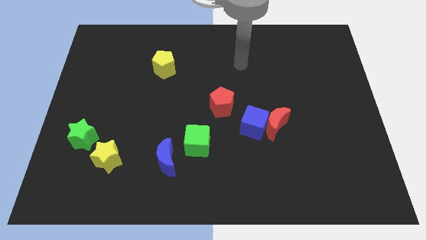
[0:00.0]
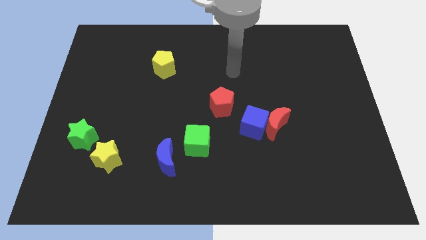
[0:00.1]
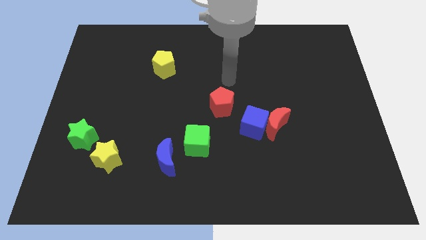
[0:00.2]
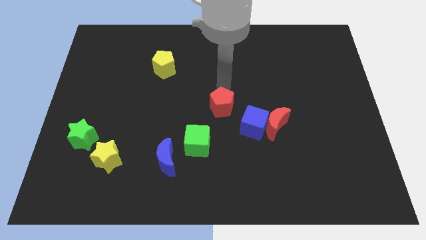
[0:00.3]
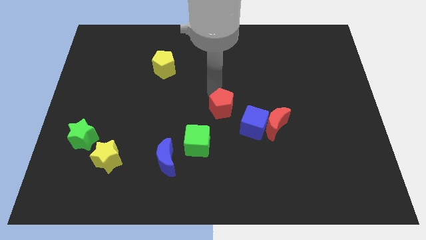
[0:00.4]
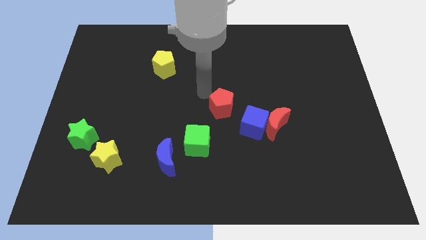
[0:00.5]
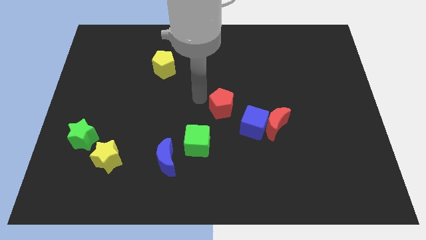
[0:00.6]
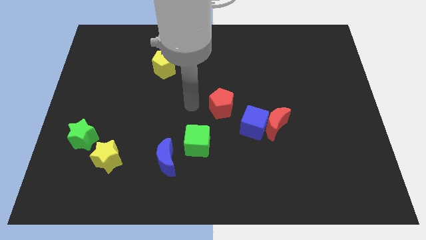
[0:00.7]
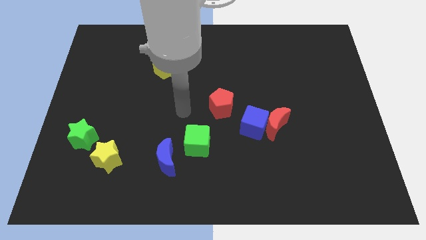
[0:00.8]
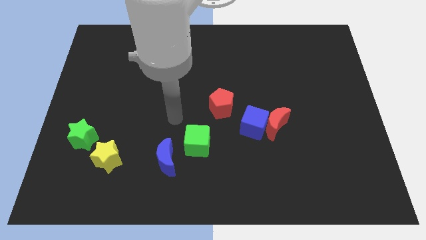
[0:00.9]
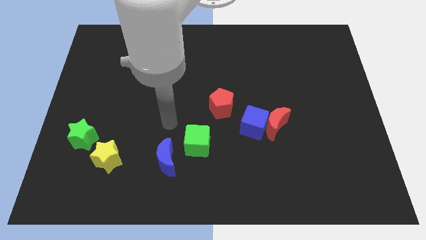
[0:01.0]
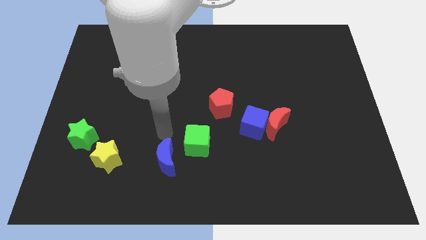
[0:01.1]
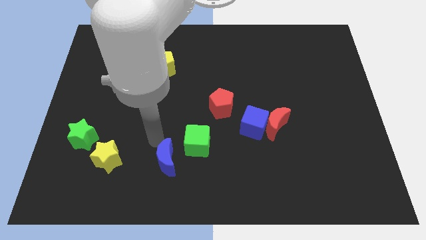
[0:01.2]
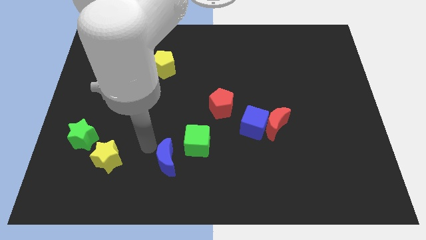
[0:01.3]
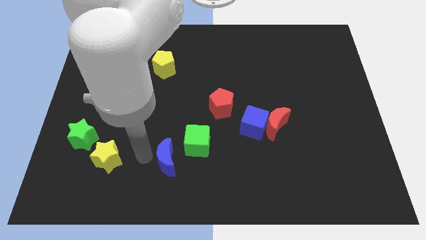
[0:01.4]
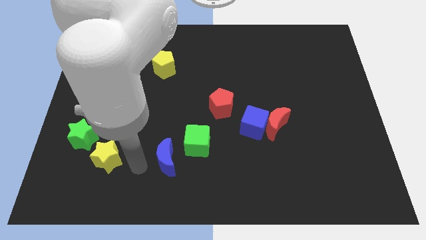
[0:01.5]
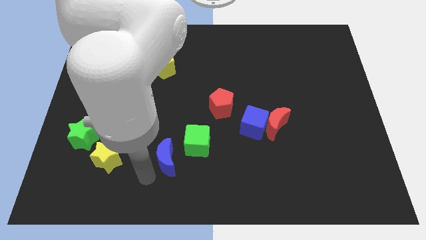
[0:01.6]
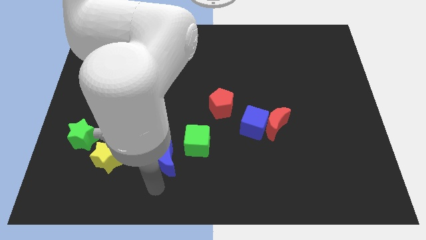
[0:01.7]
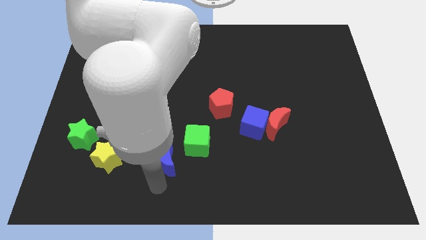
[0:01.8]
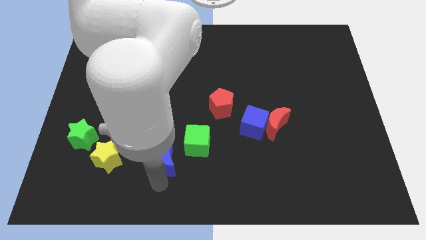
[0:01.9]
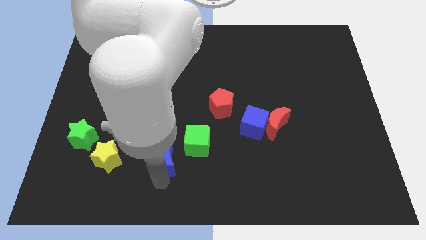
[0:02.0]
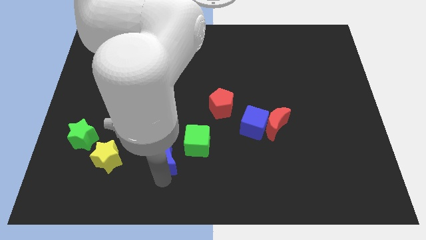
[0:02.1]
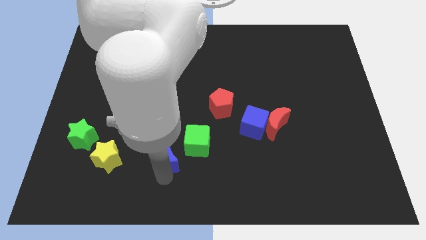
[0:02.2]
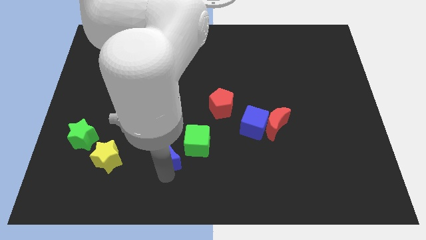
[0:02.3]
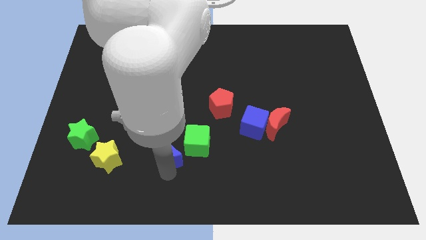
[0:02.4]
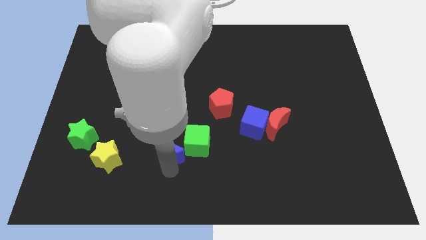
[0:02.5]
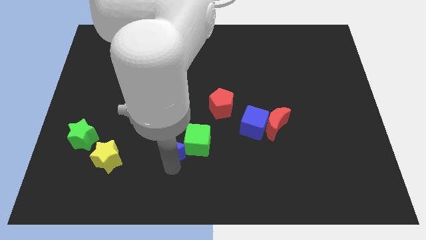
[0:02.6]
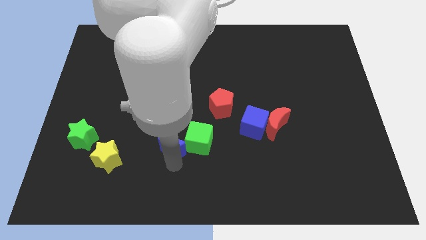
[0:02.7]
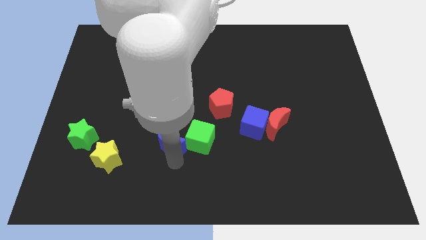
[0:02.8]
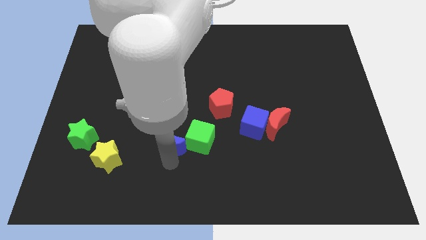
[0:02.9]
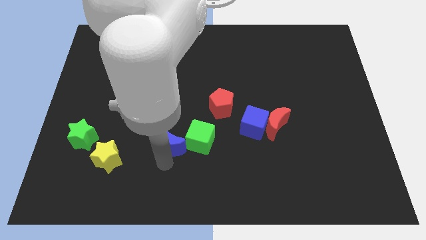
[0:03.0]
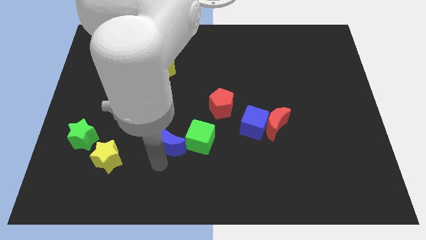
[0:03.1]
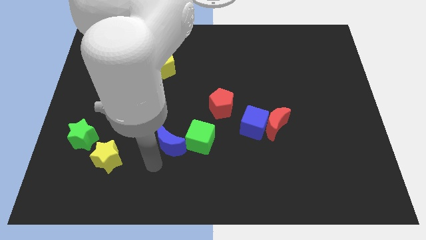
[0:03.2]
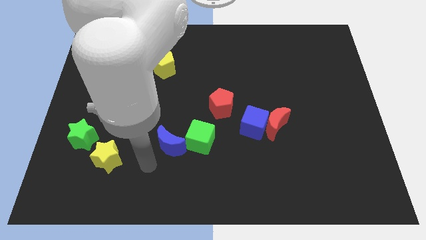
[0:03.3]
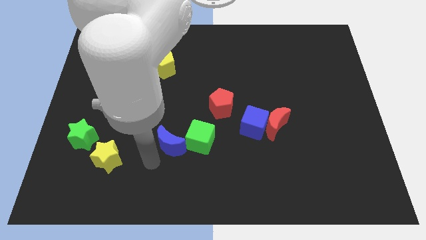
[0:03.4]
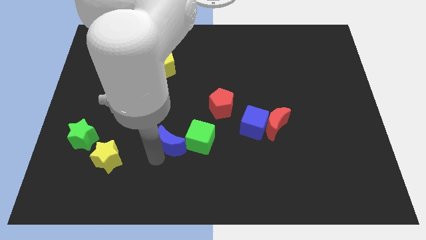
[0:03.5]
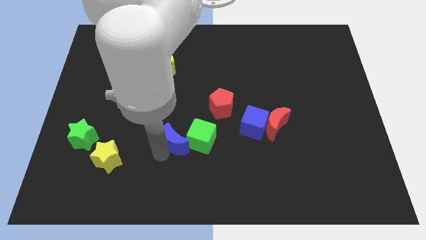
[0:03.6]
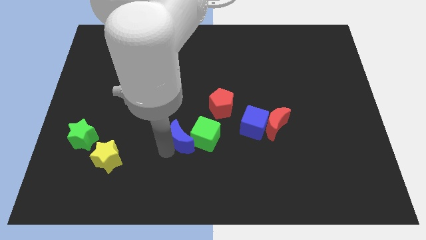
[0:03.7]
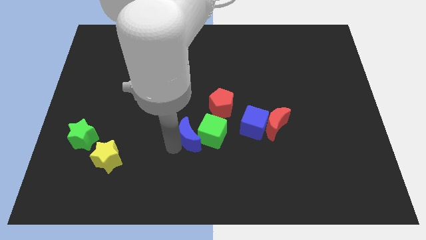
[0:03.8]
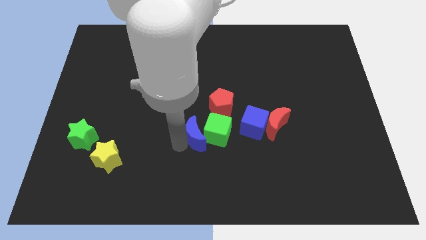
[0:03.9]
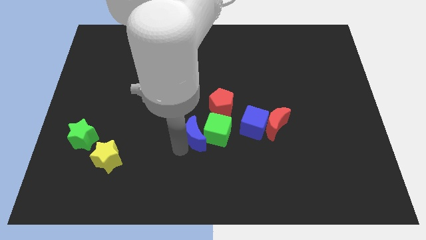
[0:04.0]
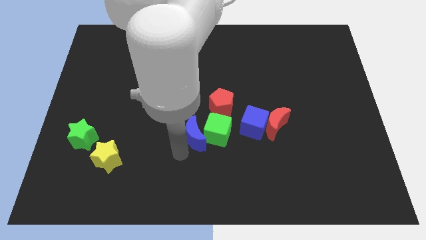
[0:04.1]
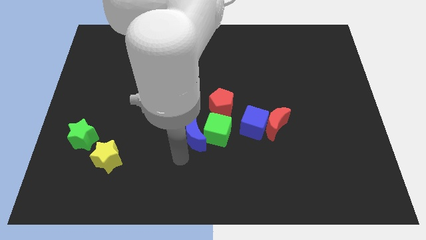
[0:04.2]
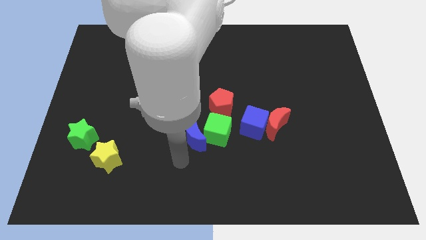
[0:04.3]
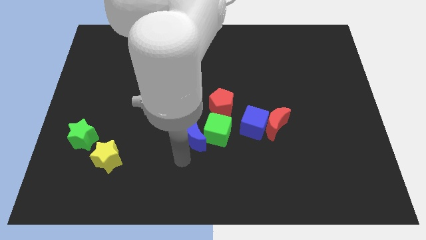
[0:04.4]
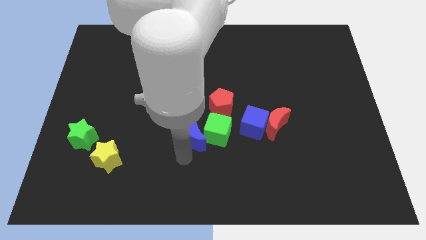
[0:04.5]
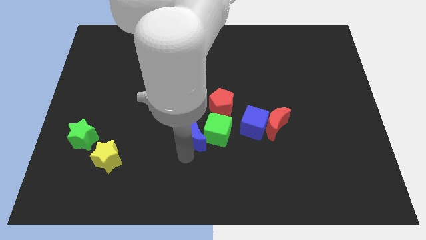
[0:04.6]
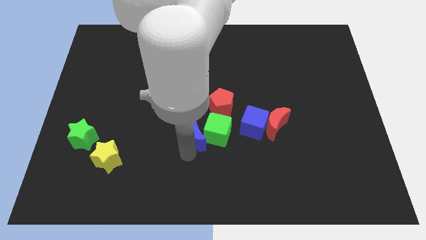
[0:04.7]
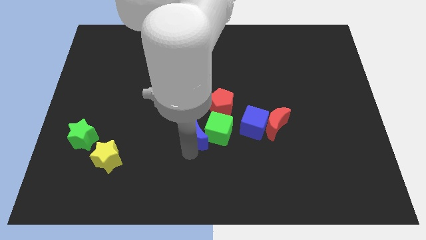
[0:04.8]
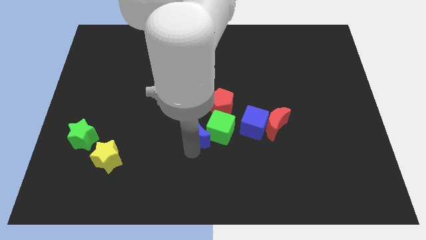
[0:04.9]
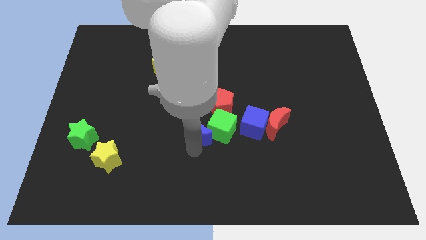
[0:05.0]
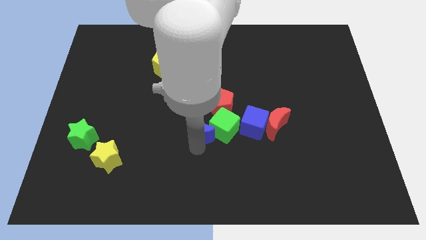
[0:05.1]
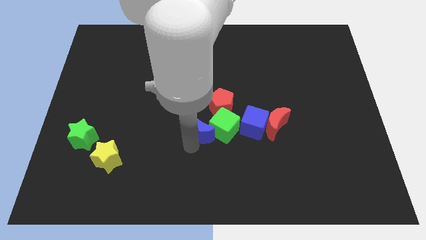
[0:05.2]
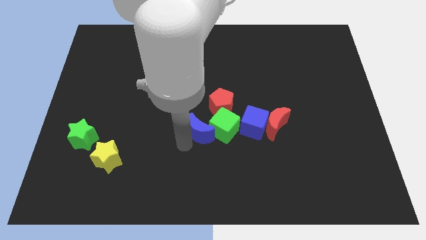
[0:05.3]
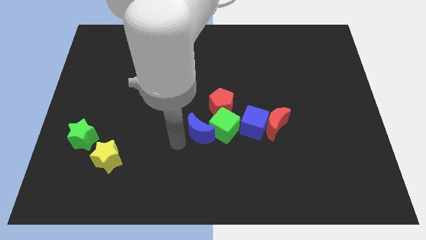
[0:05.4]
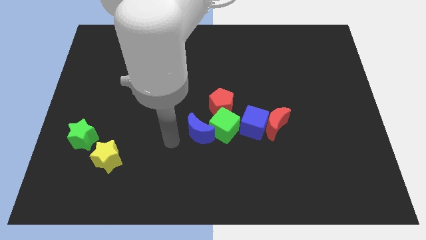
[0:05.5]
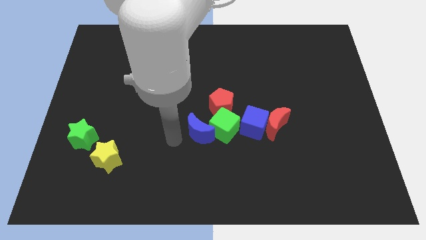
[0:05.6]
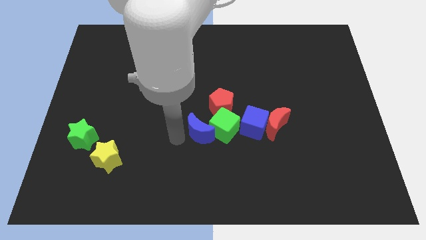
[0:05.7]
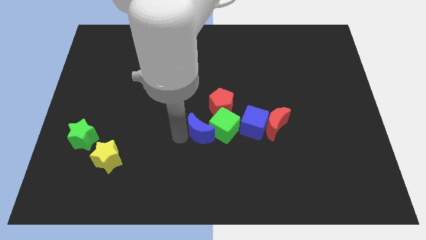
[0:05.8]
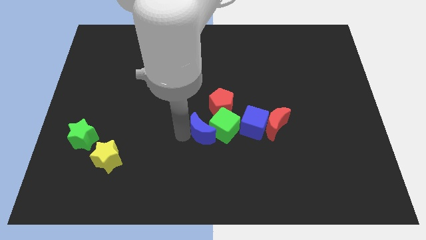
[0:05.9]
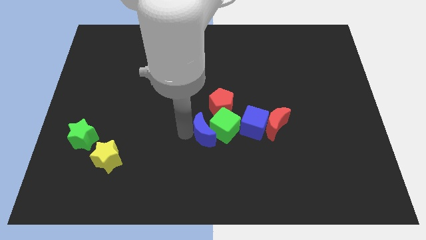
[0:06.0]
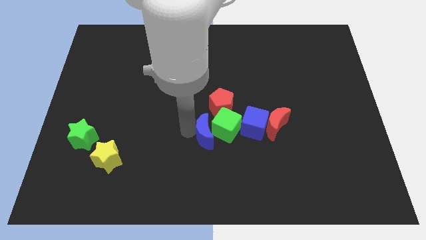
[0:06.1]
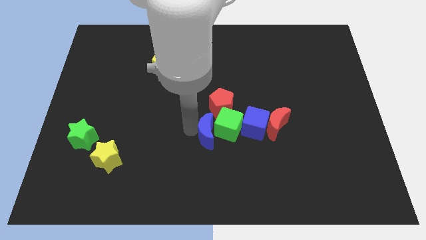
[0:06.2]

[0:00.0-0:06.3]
move the blue moon to the left of the red moon

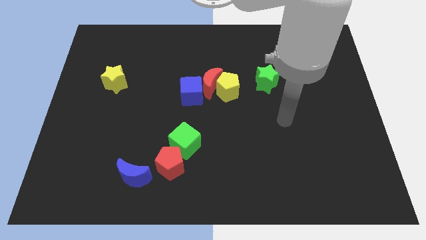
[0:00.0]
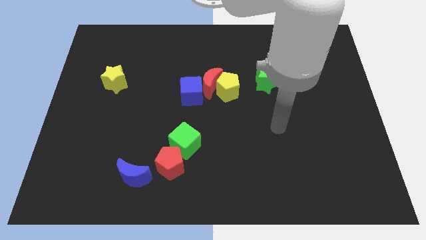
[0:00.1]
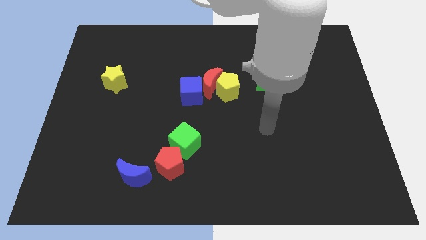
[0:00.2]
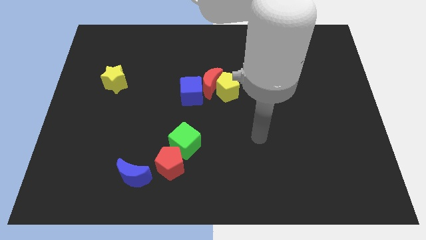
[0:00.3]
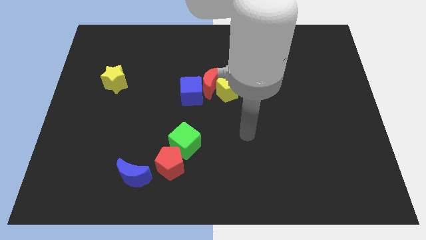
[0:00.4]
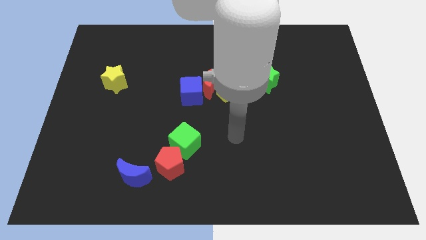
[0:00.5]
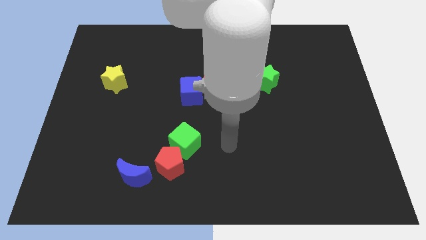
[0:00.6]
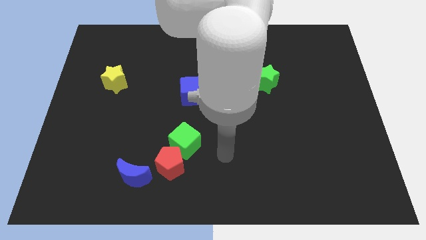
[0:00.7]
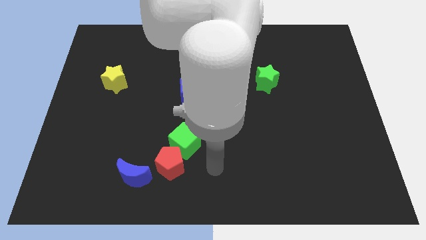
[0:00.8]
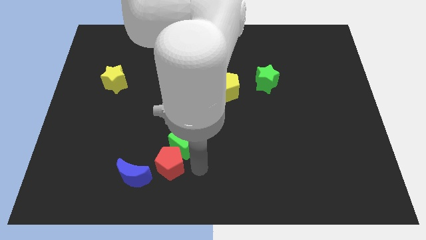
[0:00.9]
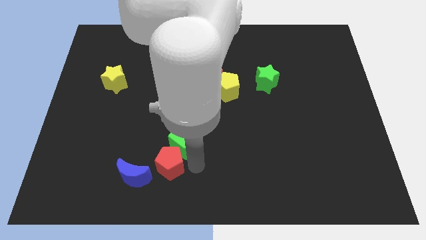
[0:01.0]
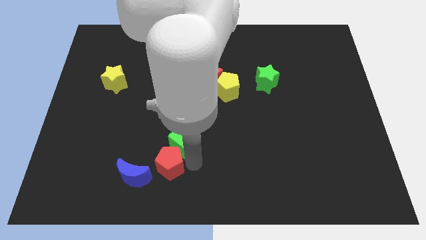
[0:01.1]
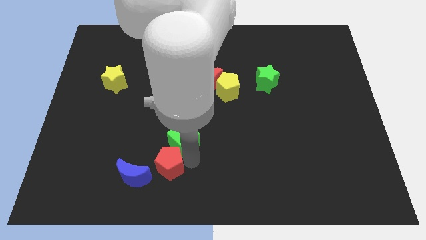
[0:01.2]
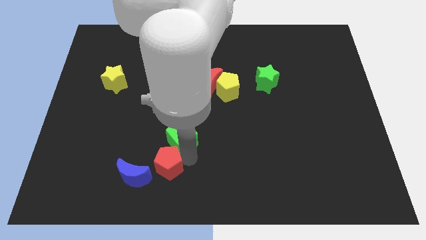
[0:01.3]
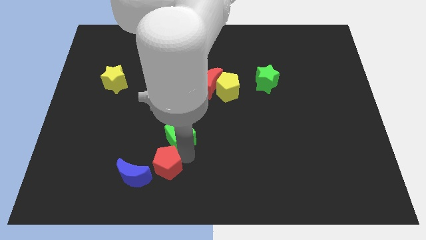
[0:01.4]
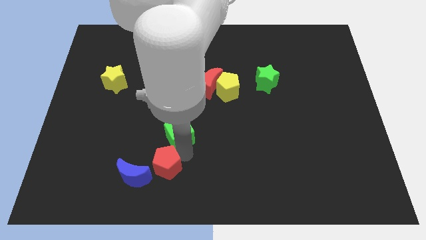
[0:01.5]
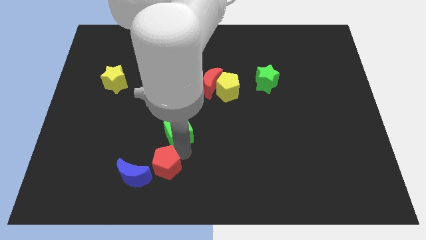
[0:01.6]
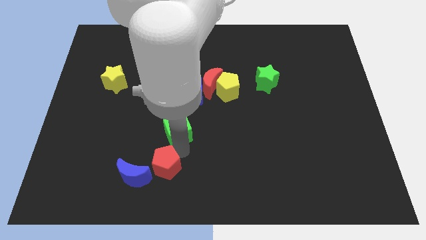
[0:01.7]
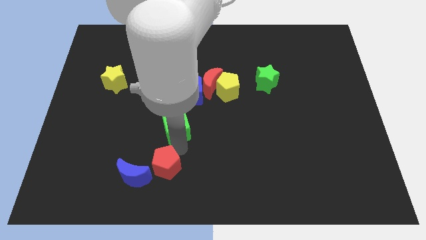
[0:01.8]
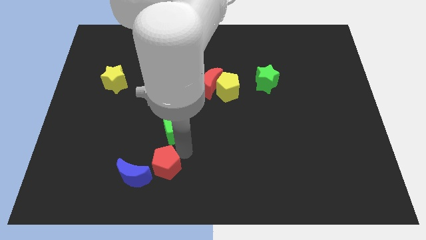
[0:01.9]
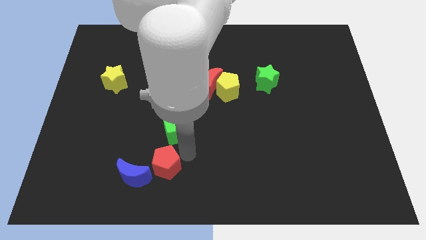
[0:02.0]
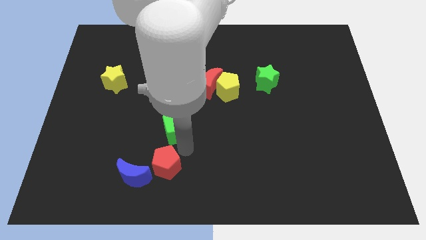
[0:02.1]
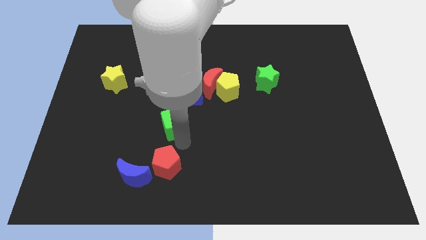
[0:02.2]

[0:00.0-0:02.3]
push the green cube to the bottom left of the blue cube
